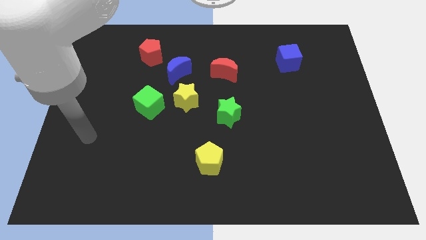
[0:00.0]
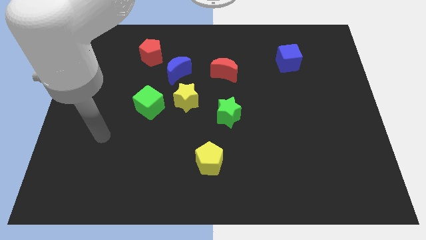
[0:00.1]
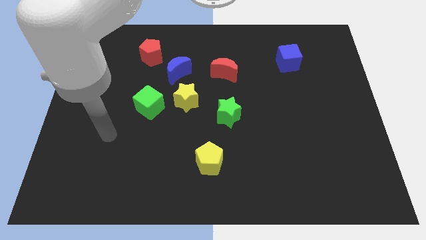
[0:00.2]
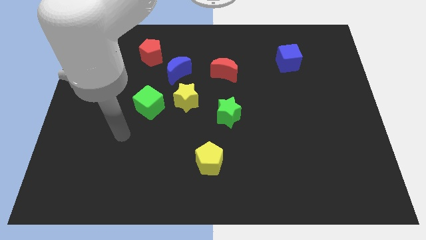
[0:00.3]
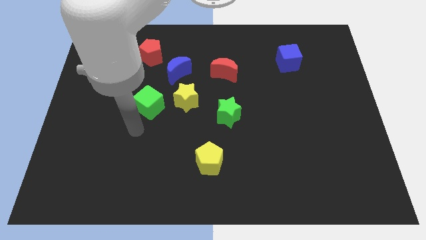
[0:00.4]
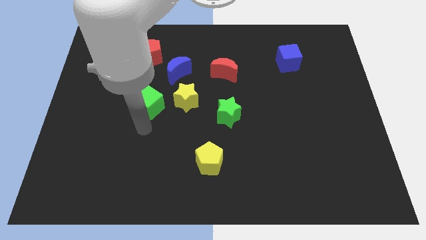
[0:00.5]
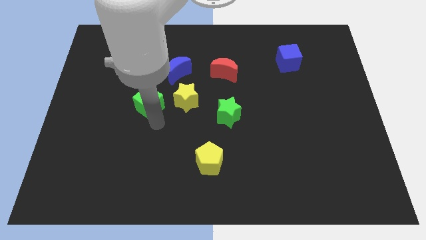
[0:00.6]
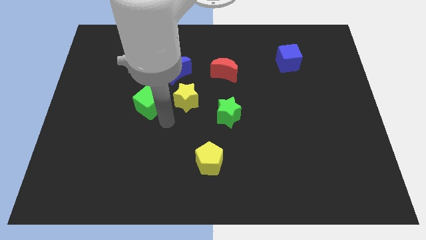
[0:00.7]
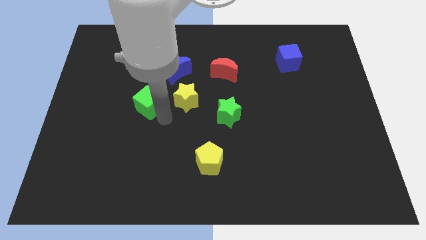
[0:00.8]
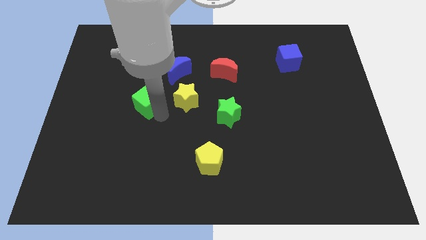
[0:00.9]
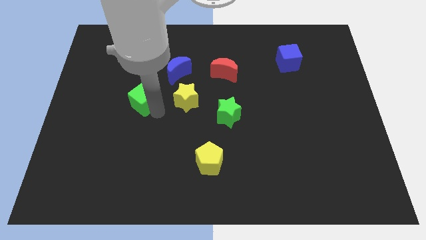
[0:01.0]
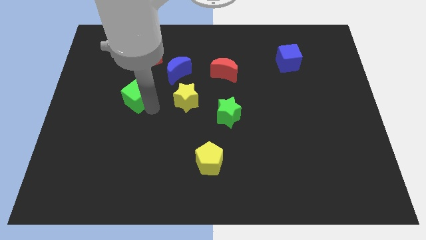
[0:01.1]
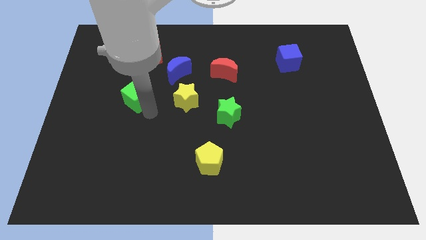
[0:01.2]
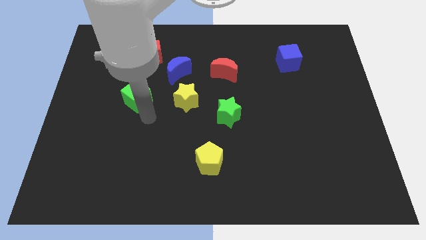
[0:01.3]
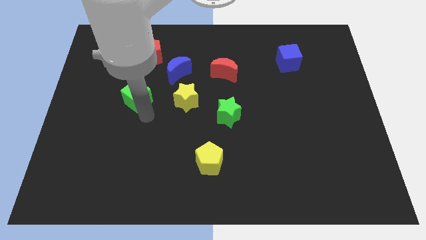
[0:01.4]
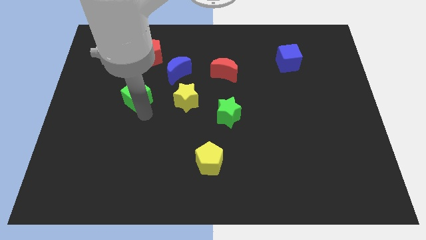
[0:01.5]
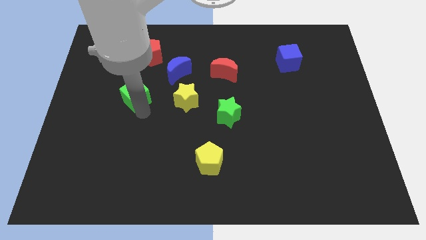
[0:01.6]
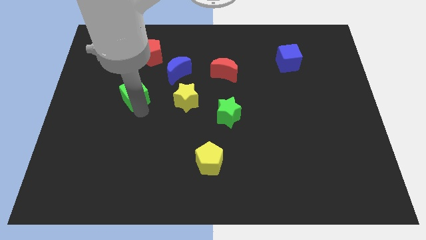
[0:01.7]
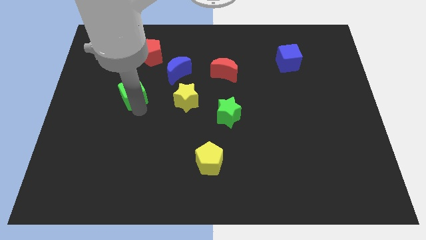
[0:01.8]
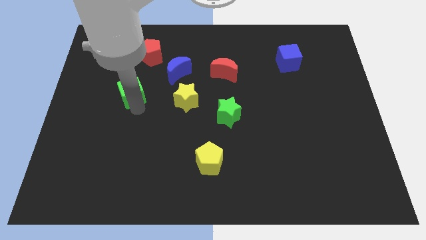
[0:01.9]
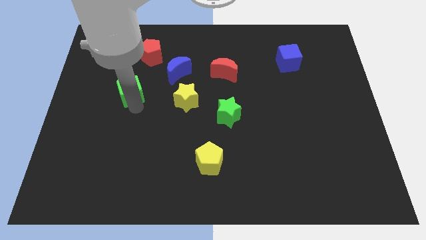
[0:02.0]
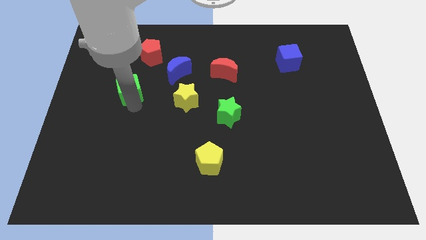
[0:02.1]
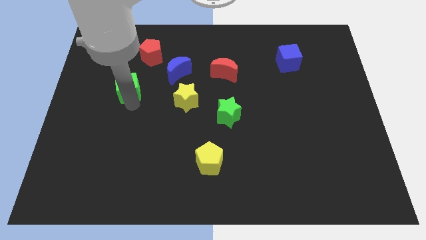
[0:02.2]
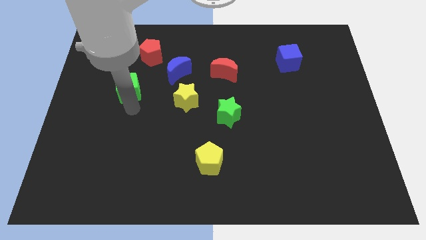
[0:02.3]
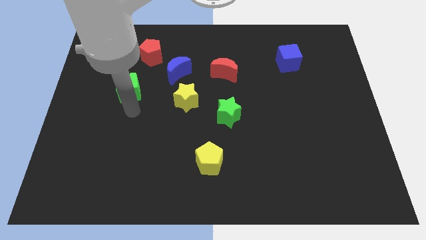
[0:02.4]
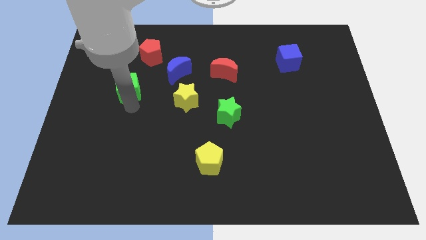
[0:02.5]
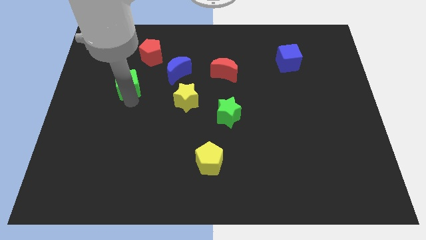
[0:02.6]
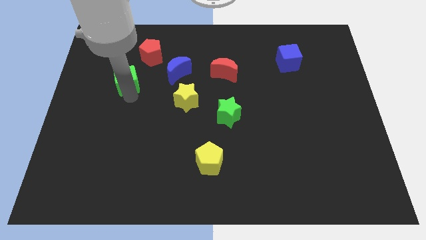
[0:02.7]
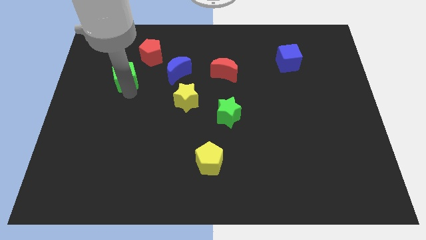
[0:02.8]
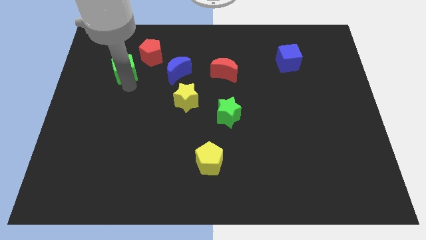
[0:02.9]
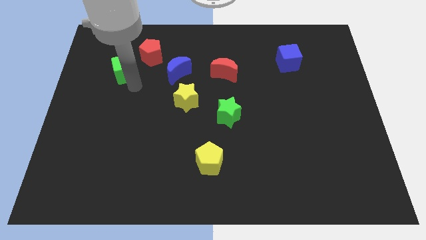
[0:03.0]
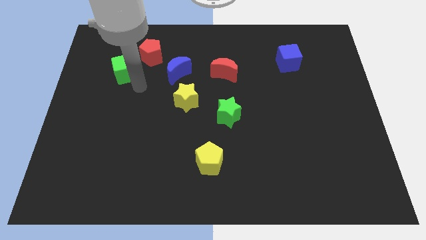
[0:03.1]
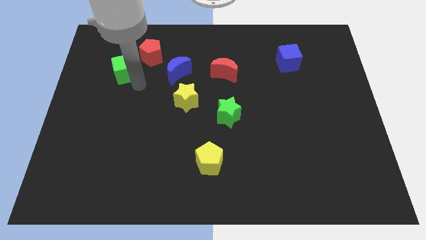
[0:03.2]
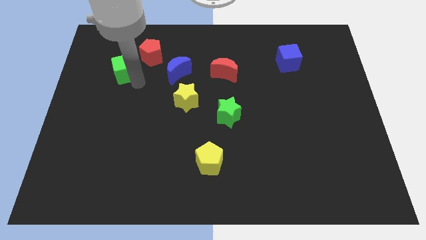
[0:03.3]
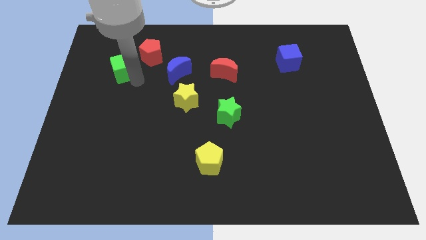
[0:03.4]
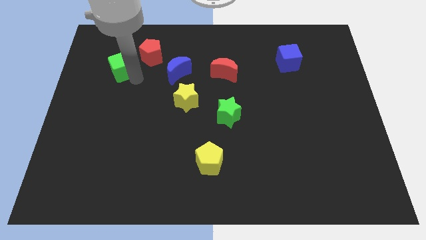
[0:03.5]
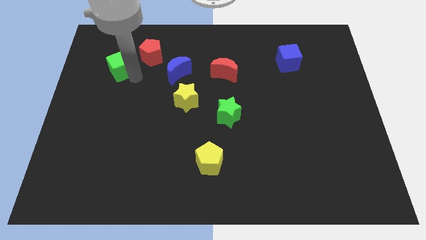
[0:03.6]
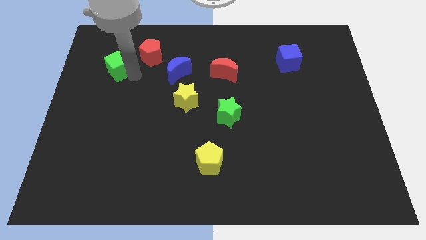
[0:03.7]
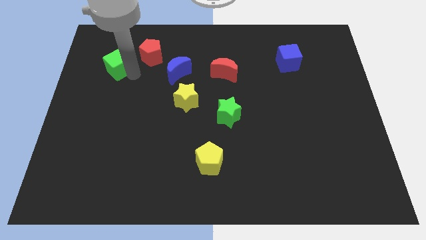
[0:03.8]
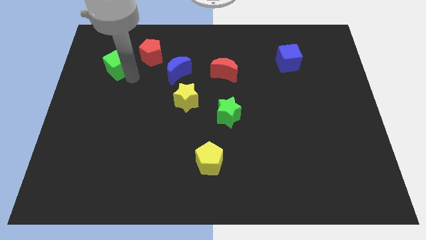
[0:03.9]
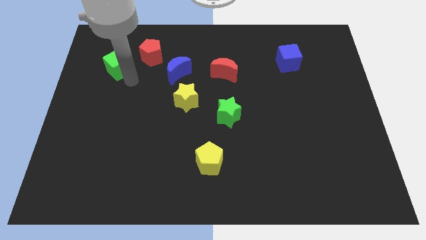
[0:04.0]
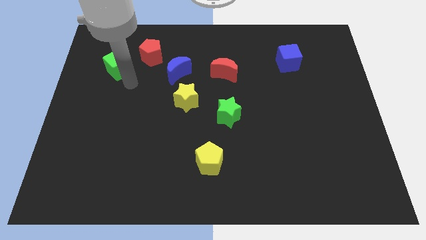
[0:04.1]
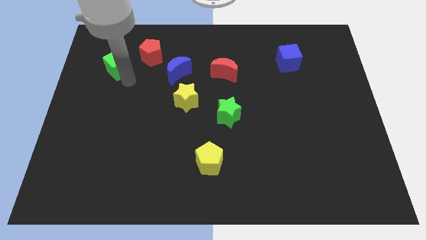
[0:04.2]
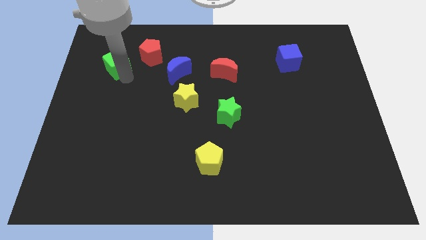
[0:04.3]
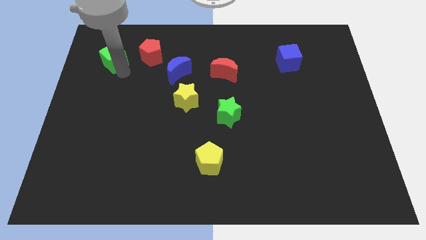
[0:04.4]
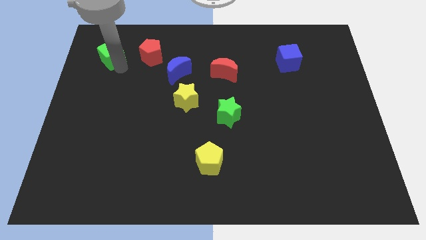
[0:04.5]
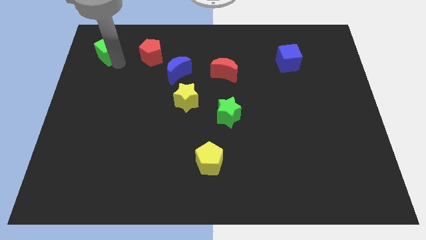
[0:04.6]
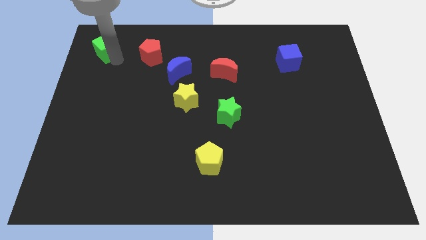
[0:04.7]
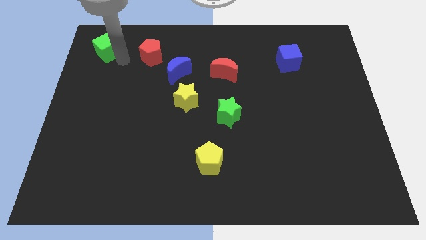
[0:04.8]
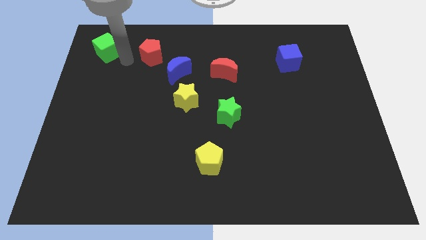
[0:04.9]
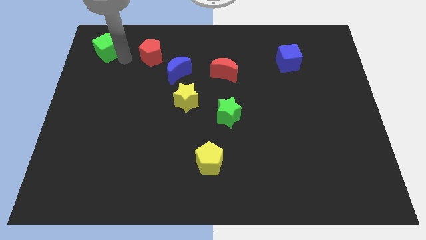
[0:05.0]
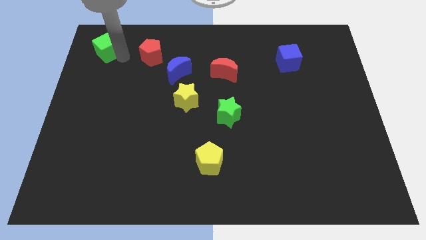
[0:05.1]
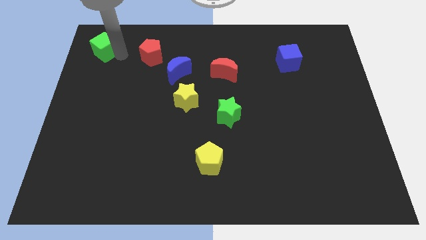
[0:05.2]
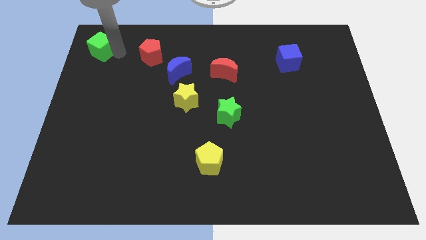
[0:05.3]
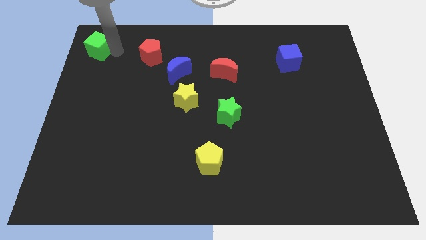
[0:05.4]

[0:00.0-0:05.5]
push the green cube to the top left

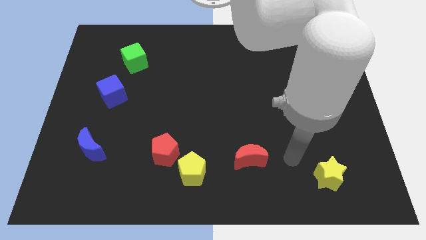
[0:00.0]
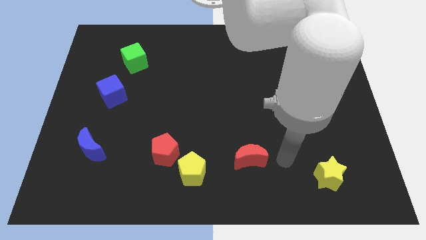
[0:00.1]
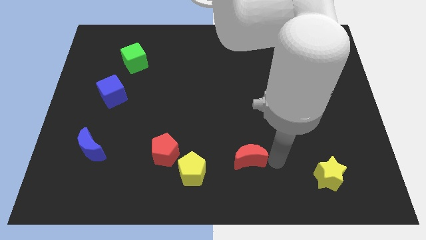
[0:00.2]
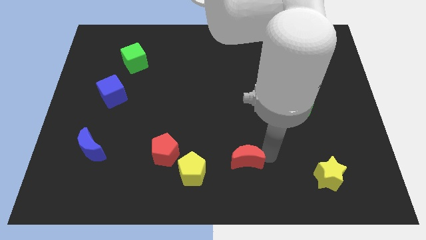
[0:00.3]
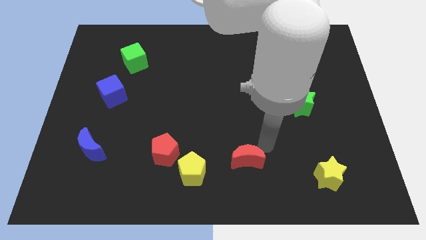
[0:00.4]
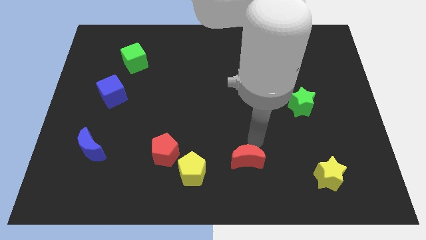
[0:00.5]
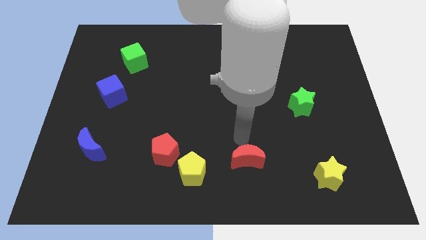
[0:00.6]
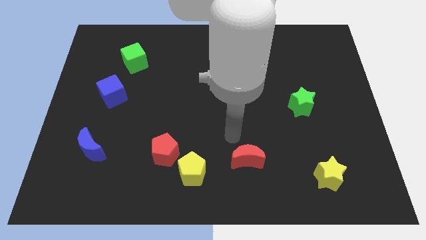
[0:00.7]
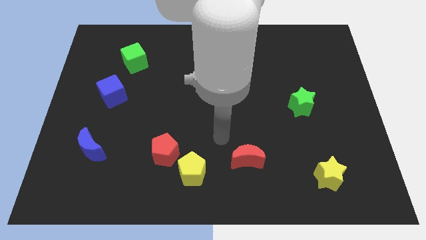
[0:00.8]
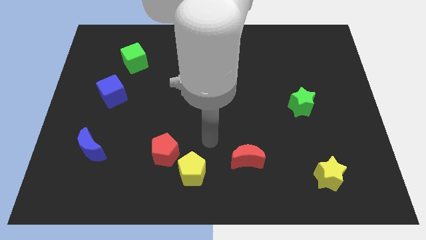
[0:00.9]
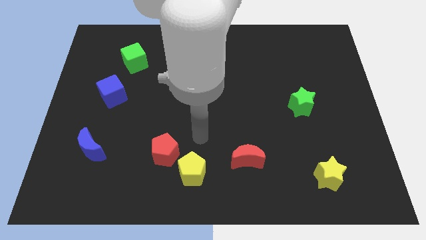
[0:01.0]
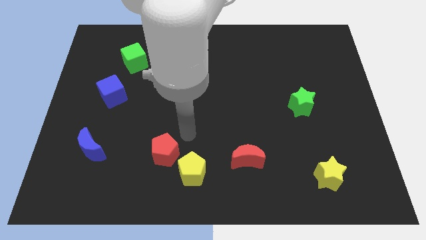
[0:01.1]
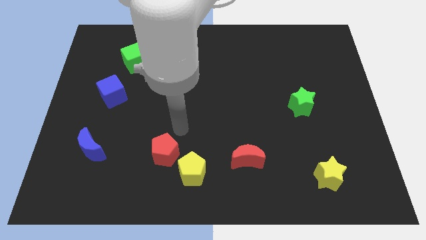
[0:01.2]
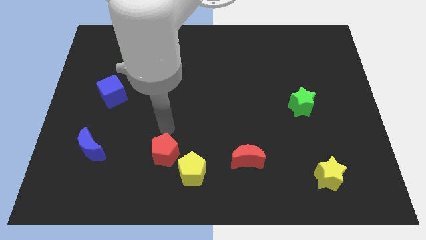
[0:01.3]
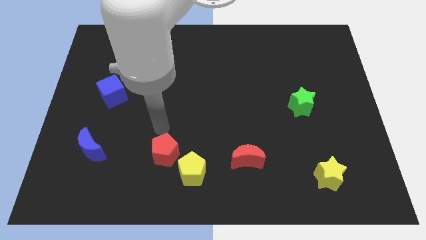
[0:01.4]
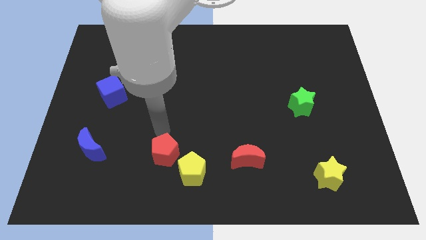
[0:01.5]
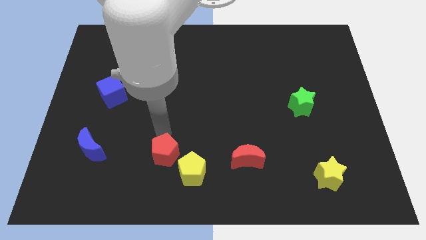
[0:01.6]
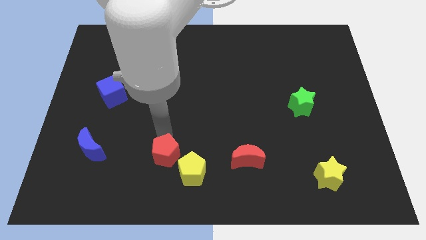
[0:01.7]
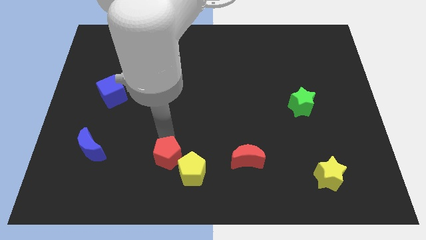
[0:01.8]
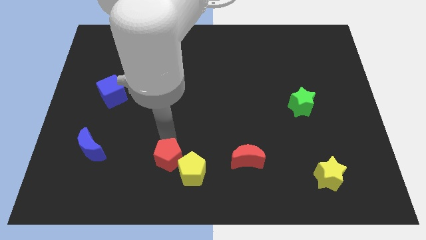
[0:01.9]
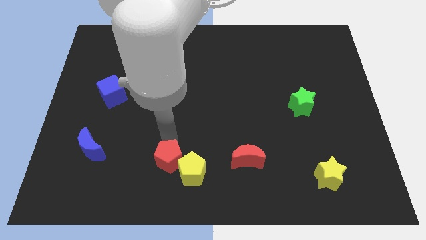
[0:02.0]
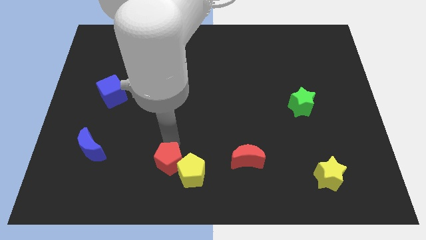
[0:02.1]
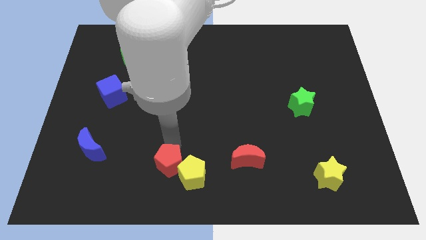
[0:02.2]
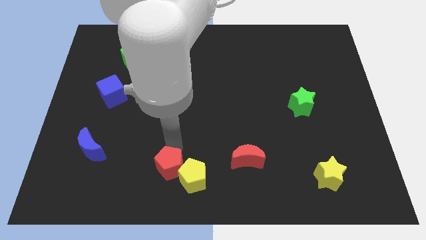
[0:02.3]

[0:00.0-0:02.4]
push the red pentagon to the bottom
